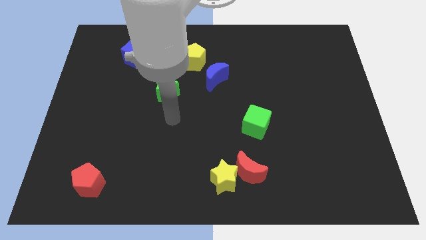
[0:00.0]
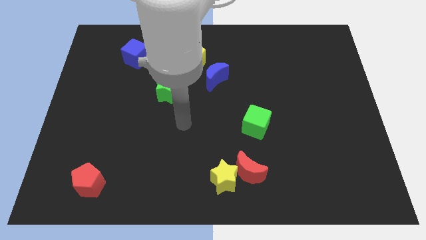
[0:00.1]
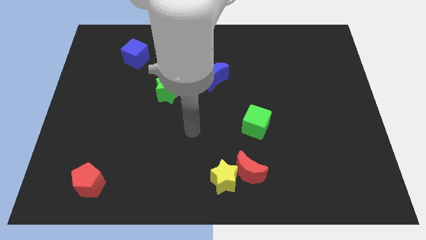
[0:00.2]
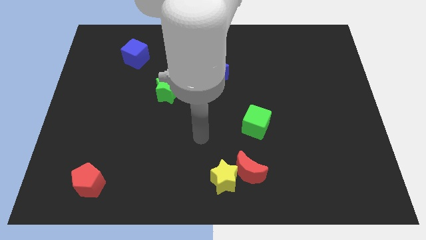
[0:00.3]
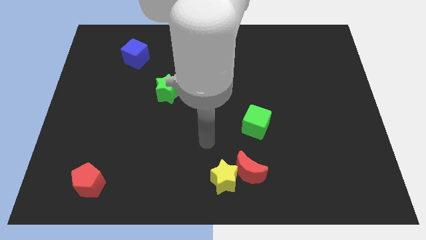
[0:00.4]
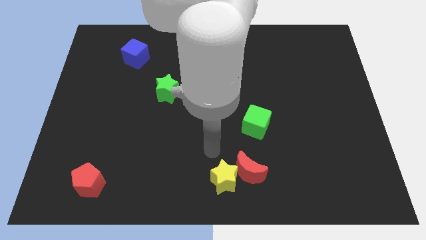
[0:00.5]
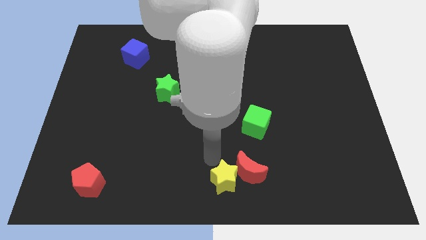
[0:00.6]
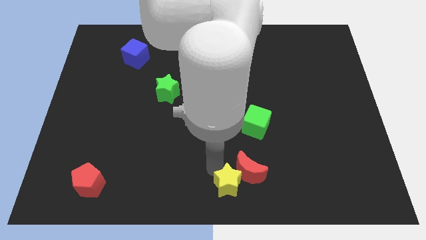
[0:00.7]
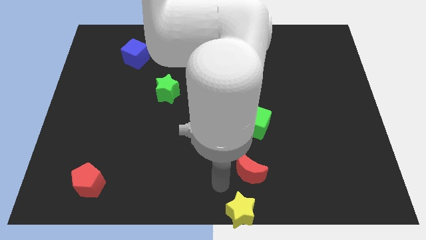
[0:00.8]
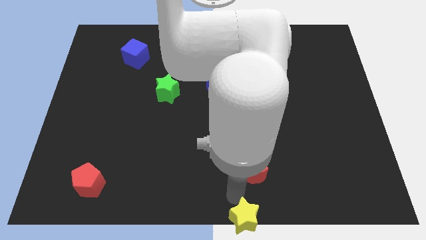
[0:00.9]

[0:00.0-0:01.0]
move the red moon away from the yellow star

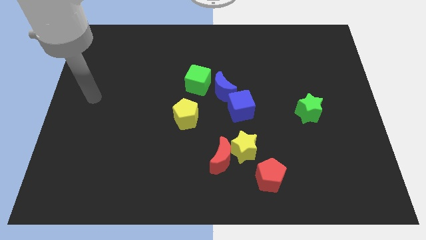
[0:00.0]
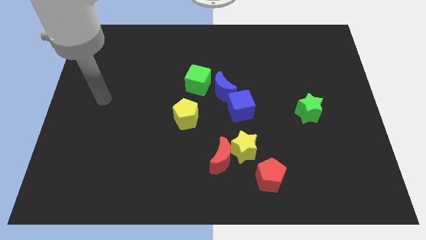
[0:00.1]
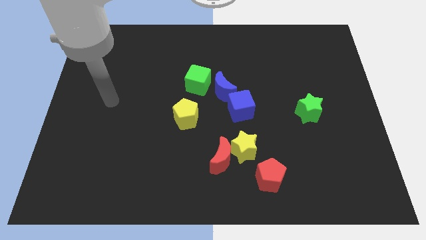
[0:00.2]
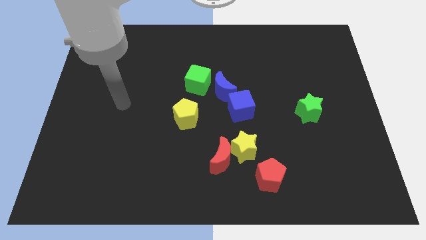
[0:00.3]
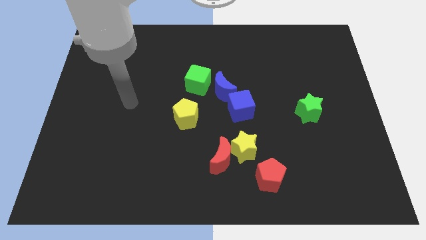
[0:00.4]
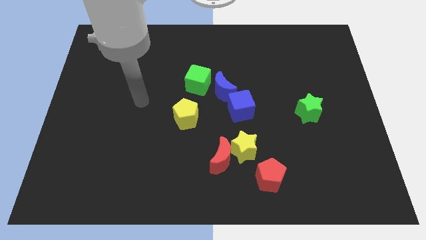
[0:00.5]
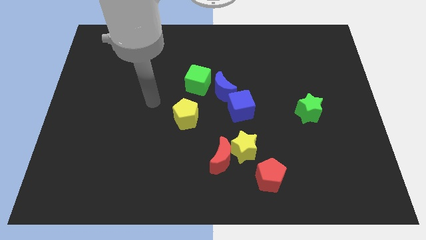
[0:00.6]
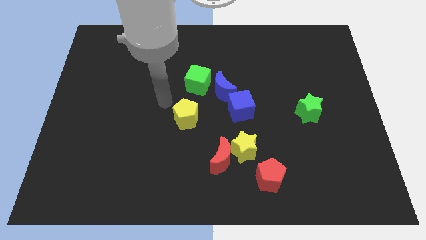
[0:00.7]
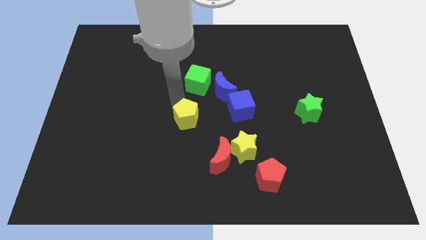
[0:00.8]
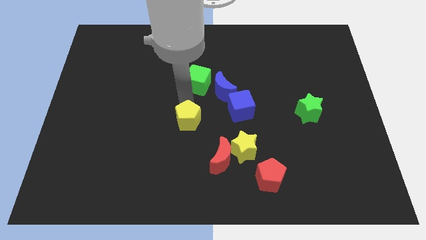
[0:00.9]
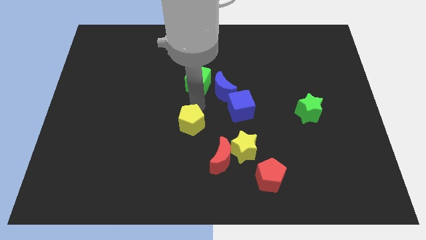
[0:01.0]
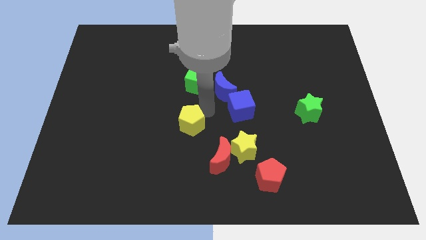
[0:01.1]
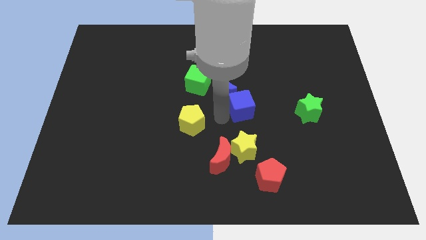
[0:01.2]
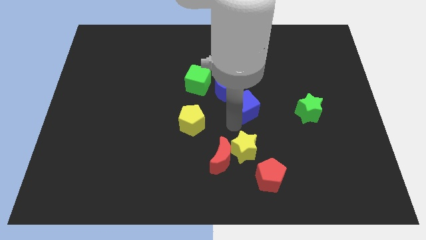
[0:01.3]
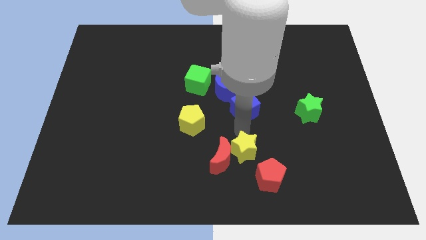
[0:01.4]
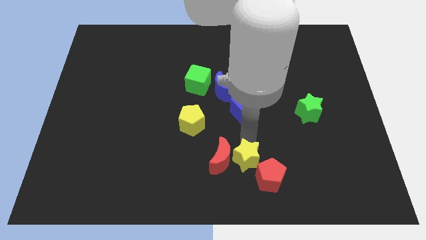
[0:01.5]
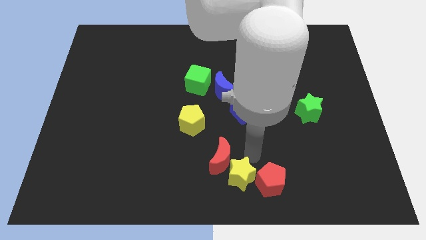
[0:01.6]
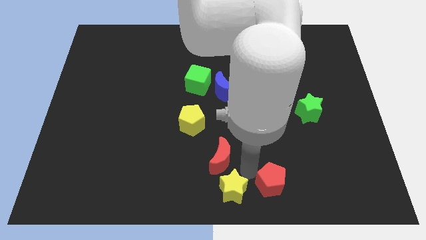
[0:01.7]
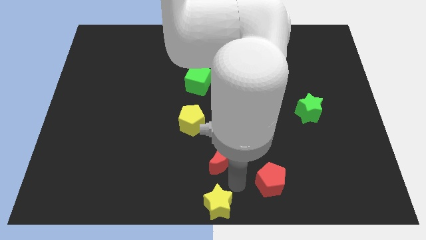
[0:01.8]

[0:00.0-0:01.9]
pull the red moon apart from the yellow star

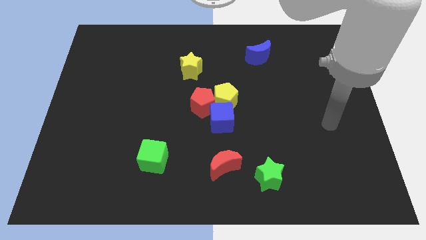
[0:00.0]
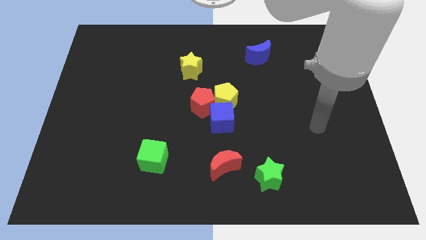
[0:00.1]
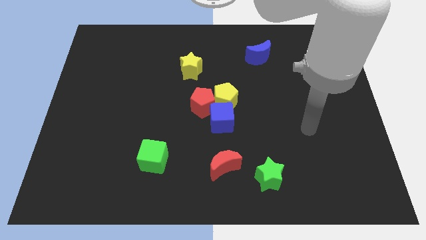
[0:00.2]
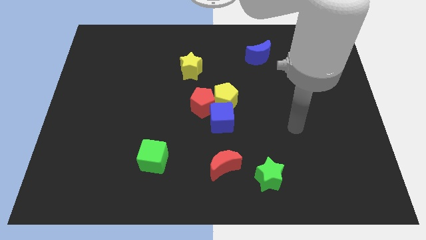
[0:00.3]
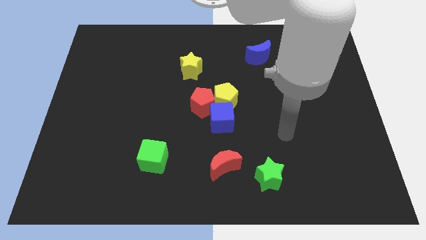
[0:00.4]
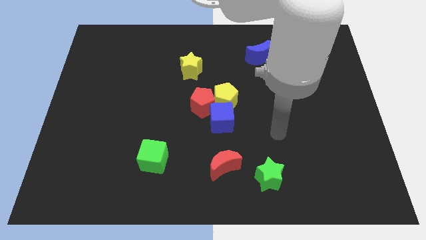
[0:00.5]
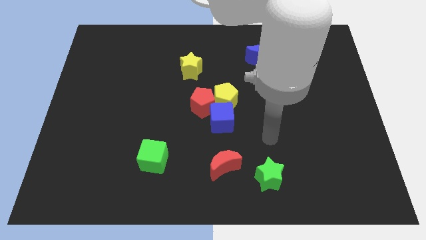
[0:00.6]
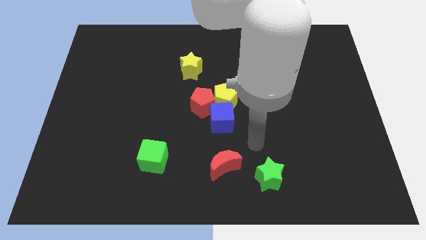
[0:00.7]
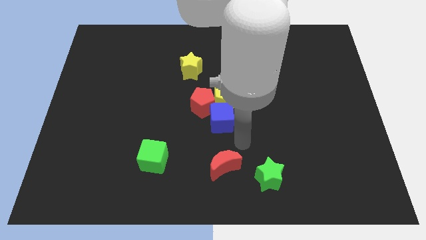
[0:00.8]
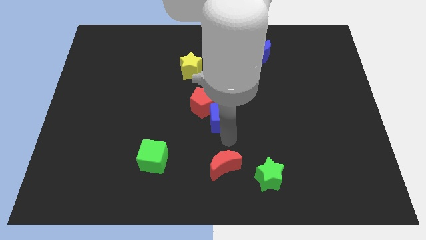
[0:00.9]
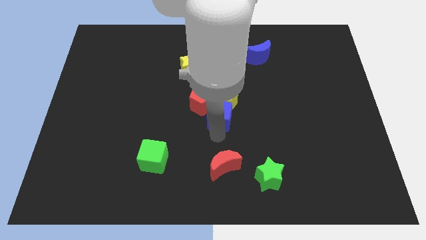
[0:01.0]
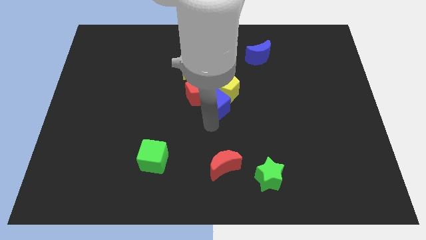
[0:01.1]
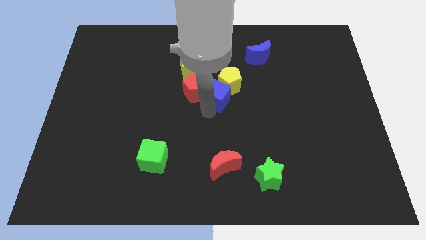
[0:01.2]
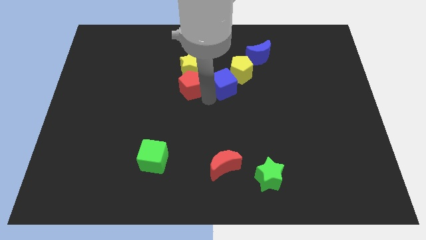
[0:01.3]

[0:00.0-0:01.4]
pull the yellow pentagon apart from the red pentagon and blue cube

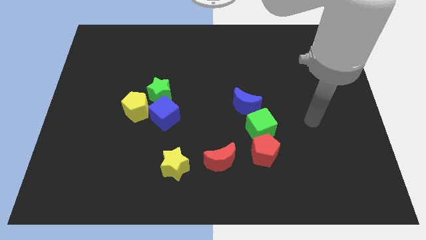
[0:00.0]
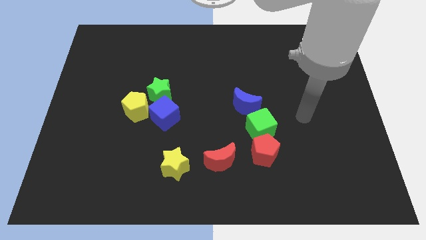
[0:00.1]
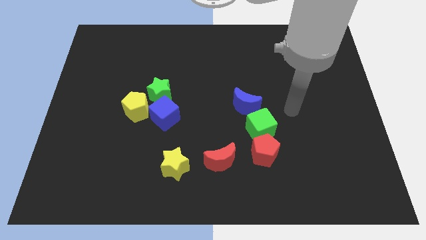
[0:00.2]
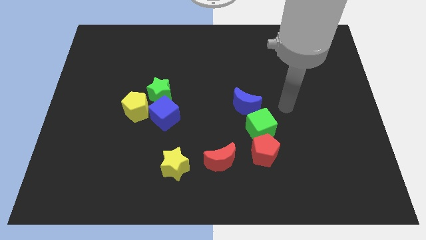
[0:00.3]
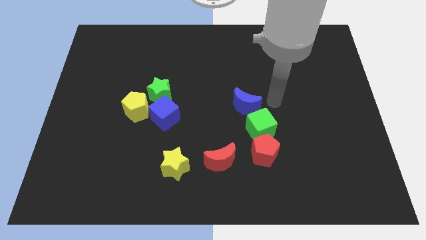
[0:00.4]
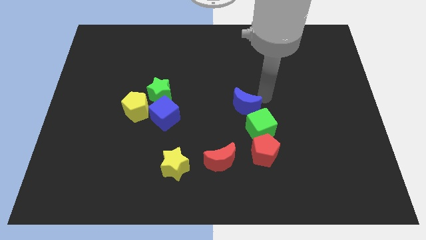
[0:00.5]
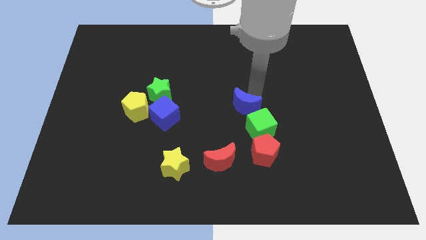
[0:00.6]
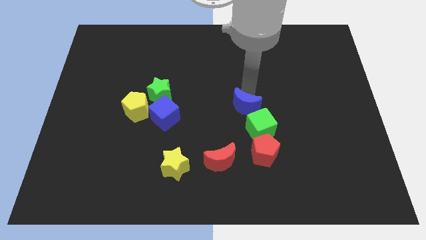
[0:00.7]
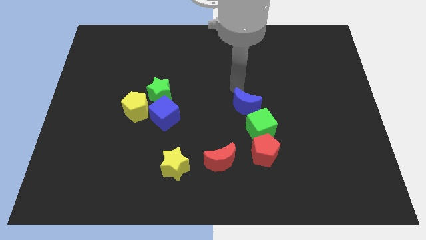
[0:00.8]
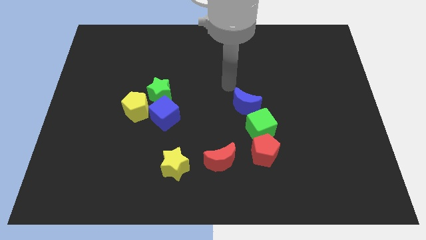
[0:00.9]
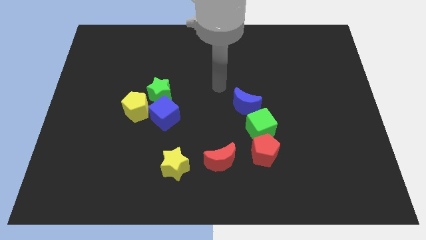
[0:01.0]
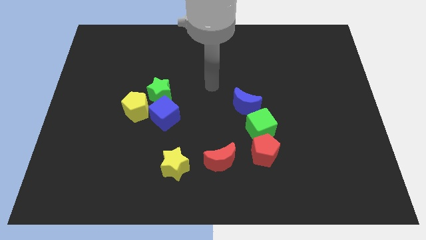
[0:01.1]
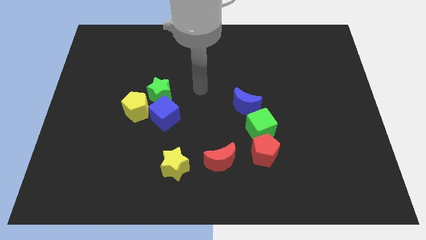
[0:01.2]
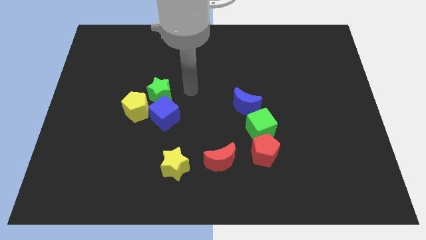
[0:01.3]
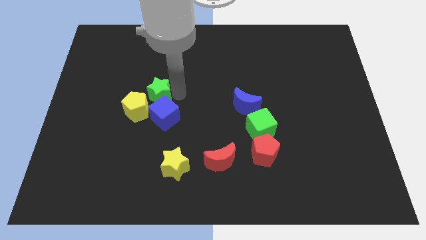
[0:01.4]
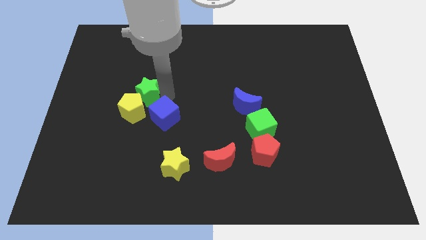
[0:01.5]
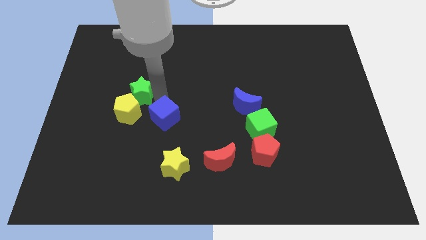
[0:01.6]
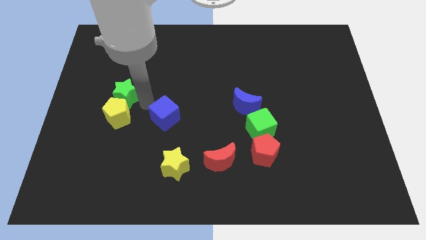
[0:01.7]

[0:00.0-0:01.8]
move the blue cube away from the green star and yellow pentagon

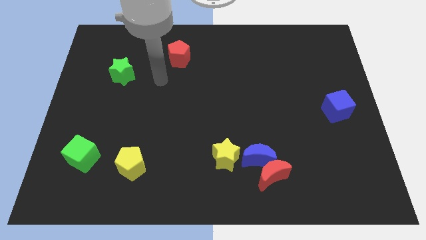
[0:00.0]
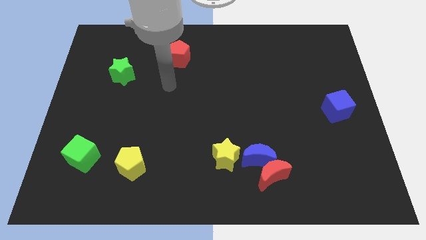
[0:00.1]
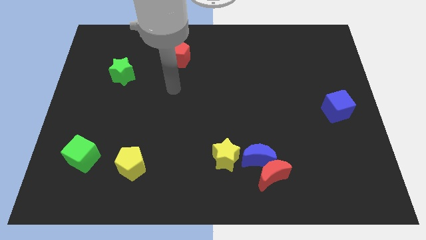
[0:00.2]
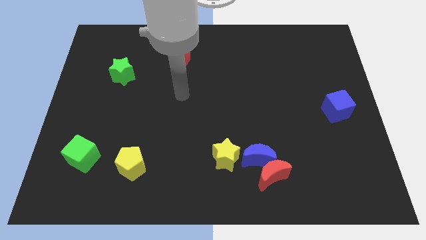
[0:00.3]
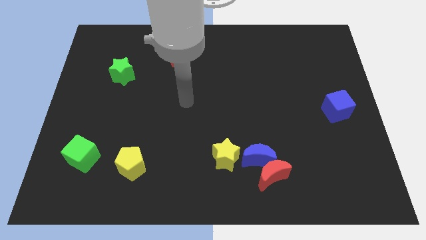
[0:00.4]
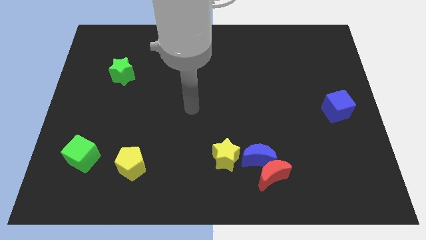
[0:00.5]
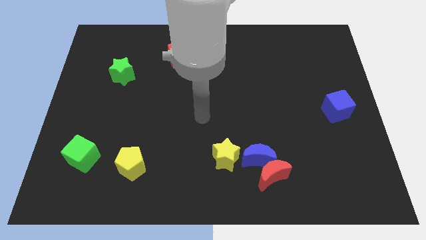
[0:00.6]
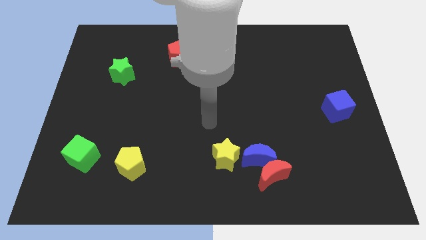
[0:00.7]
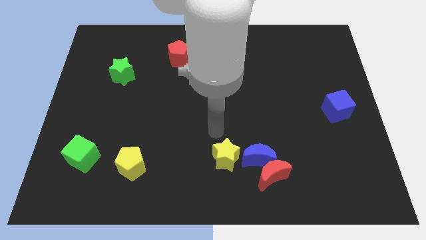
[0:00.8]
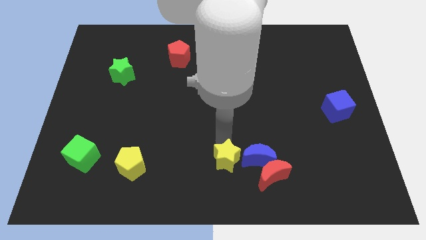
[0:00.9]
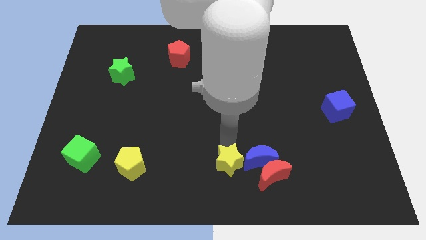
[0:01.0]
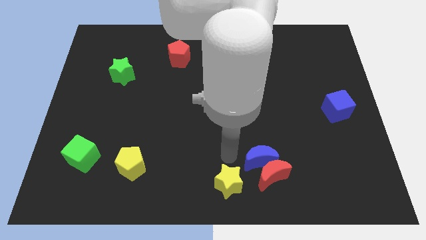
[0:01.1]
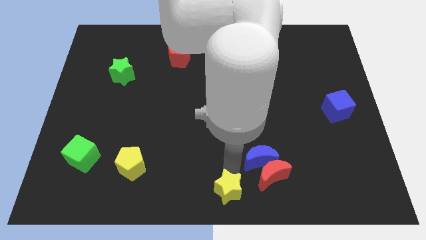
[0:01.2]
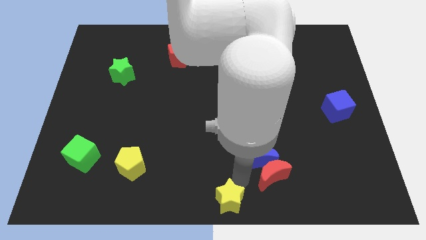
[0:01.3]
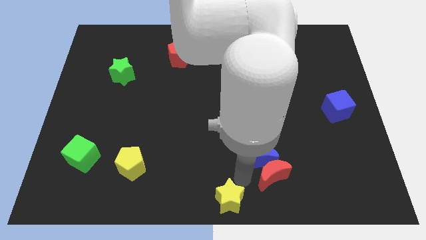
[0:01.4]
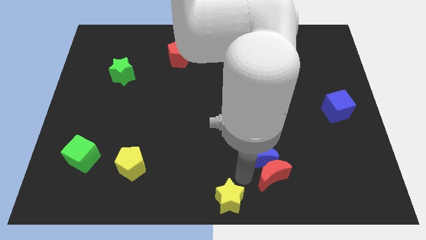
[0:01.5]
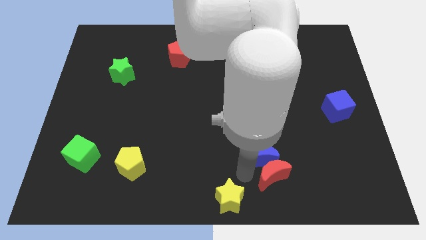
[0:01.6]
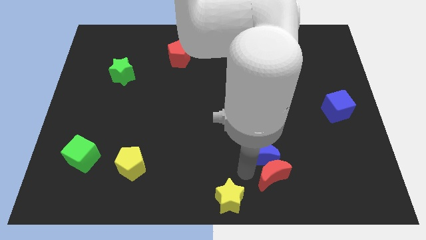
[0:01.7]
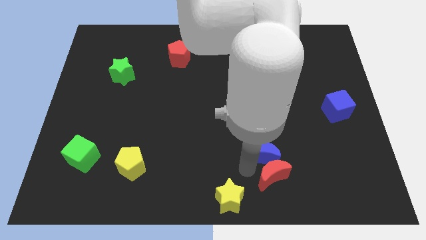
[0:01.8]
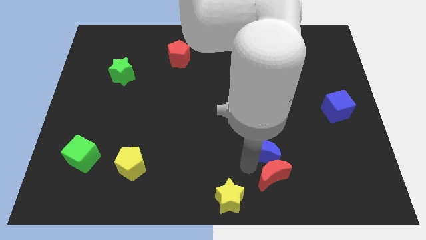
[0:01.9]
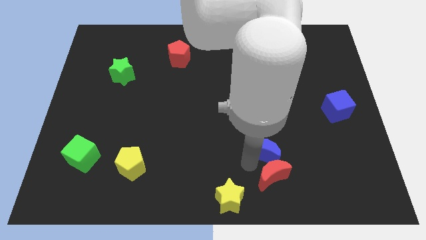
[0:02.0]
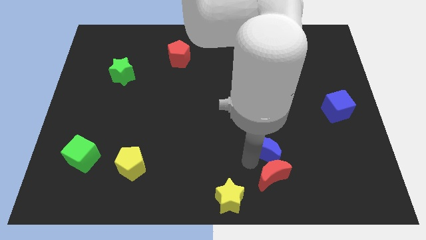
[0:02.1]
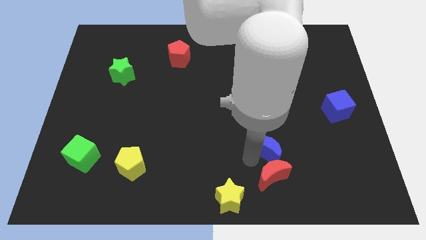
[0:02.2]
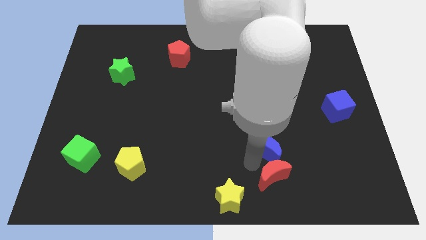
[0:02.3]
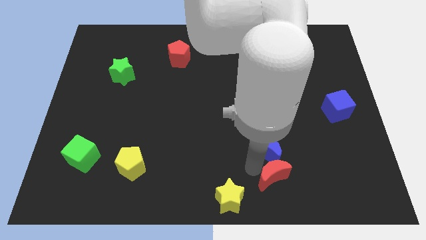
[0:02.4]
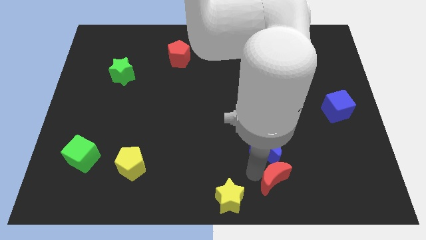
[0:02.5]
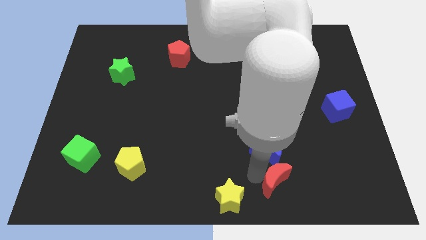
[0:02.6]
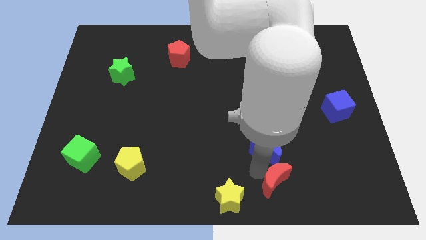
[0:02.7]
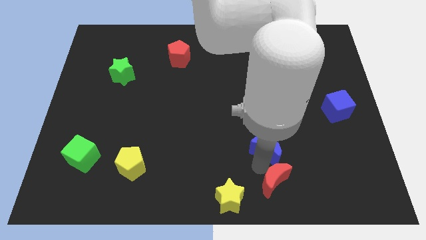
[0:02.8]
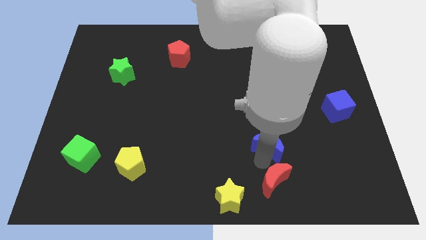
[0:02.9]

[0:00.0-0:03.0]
separate the blue moon from the red moon and yellow star

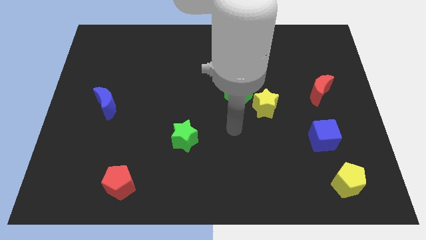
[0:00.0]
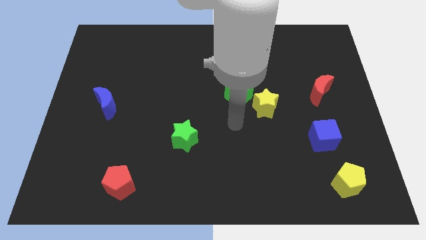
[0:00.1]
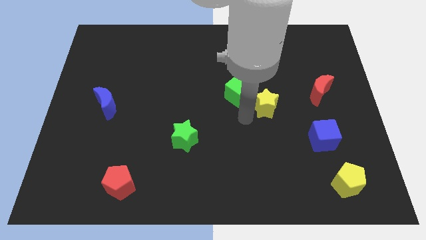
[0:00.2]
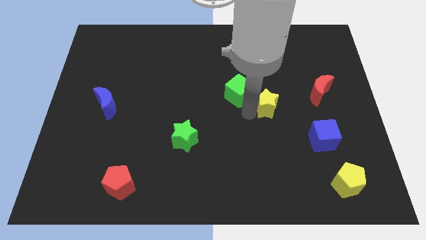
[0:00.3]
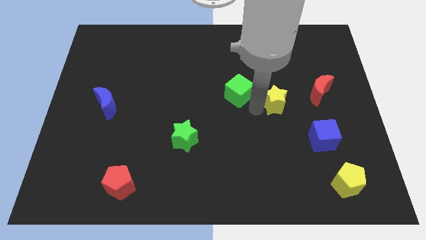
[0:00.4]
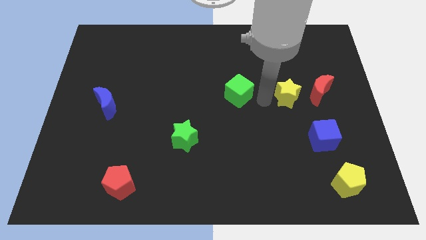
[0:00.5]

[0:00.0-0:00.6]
pull the green cube apart from the yellow star
